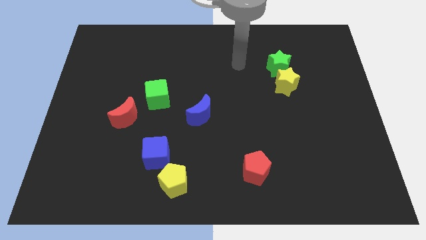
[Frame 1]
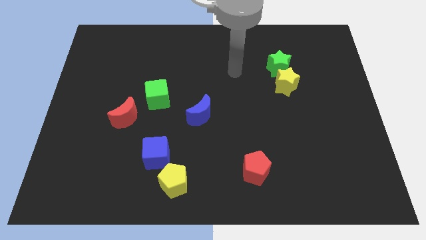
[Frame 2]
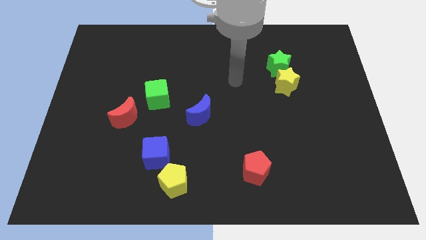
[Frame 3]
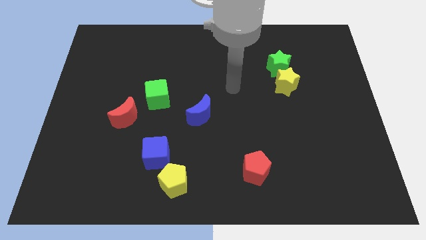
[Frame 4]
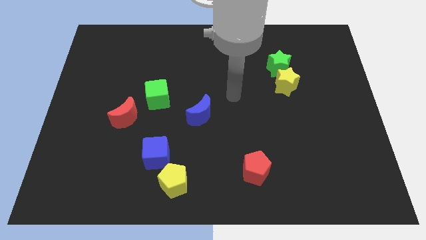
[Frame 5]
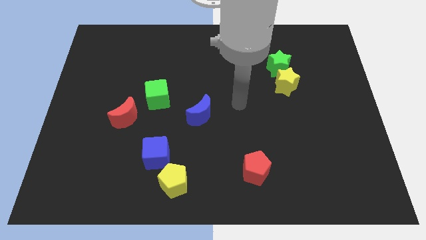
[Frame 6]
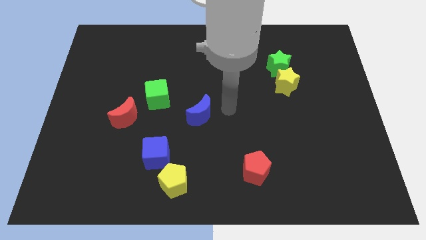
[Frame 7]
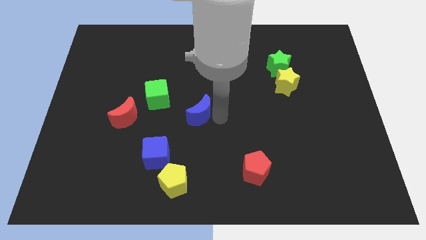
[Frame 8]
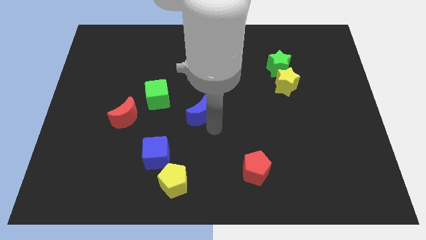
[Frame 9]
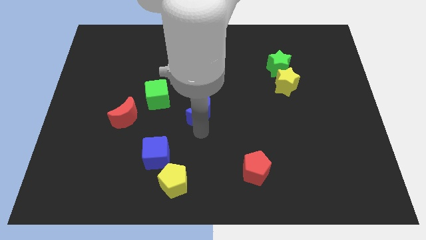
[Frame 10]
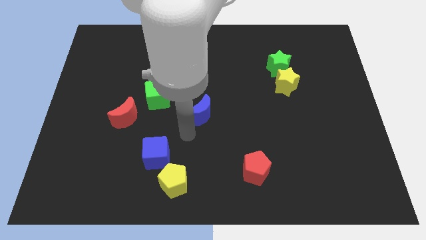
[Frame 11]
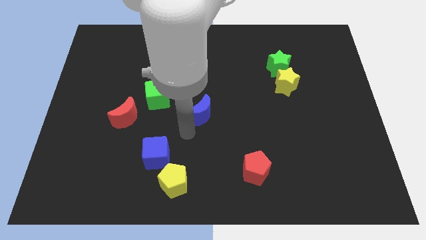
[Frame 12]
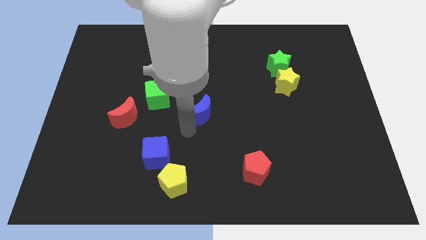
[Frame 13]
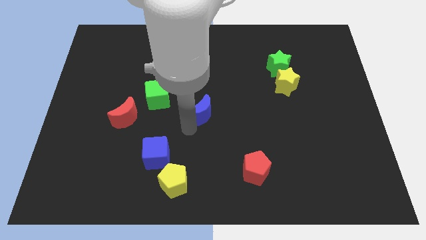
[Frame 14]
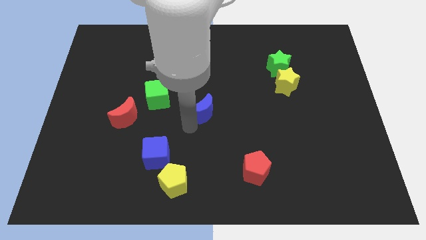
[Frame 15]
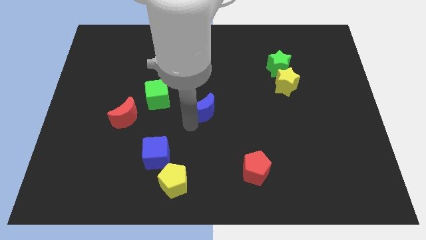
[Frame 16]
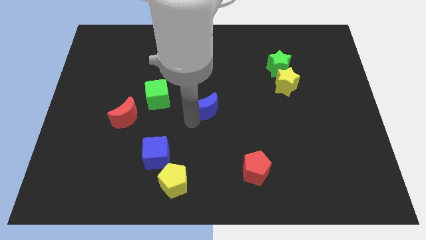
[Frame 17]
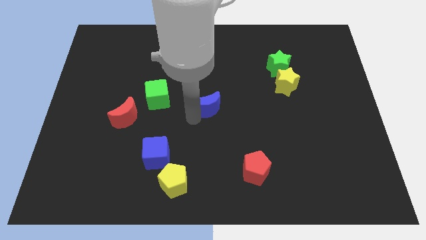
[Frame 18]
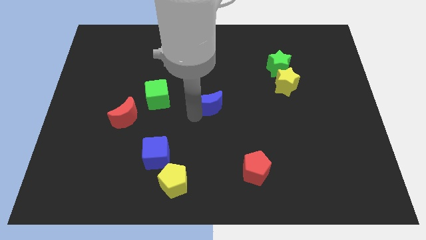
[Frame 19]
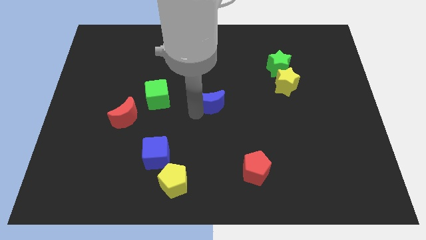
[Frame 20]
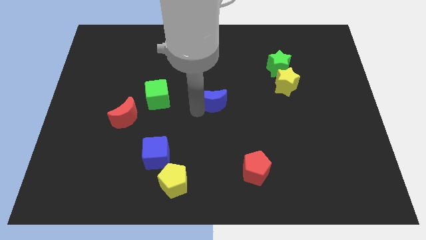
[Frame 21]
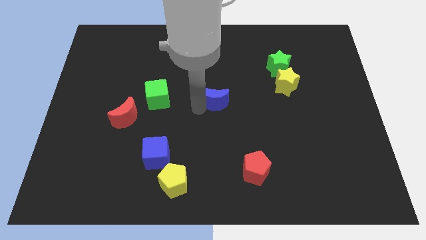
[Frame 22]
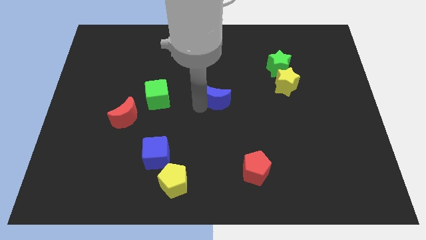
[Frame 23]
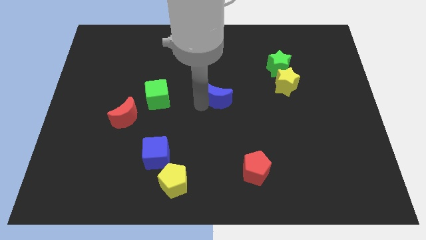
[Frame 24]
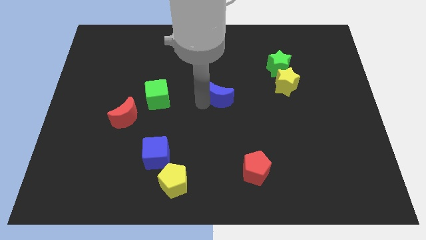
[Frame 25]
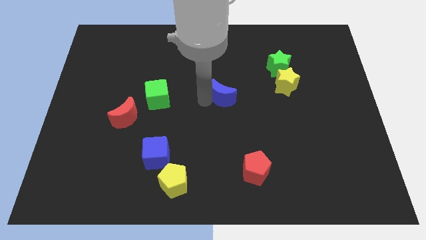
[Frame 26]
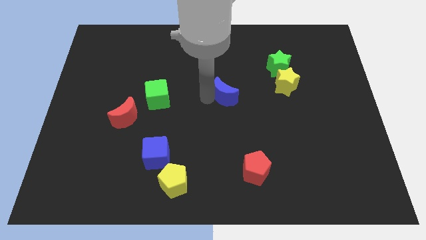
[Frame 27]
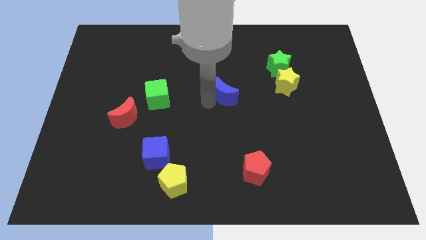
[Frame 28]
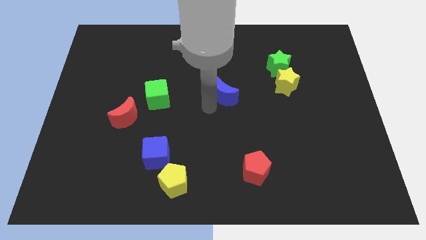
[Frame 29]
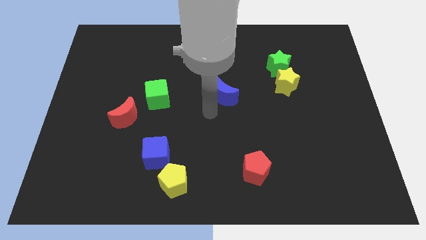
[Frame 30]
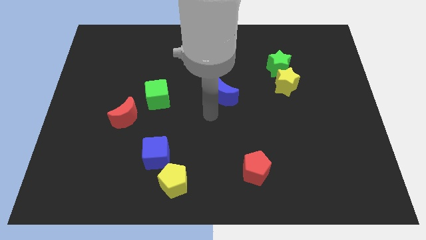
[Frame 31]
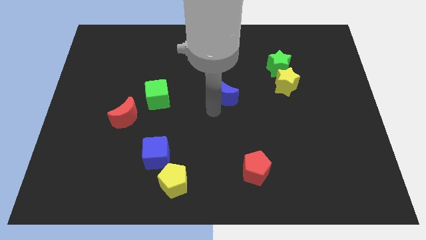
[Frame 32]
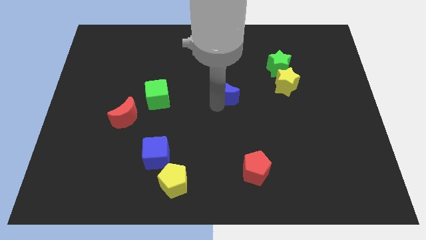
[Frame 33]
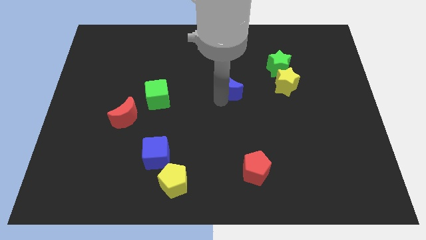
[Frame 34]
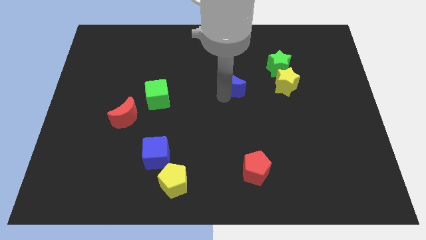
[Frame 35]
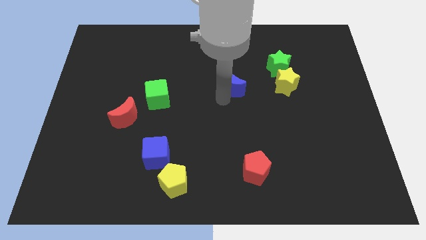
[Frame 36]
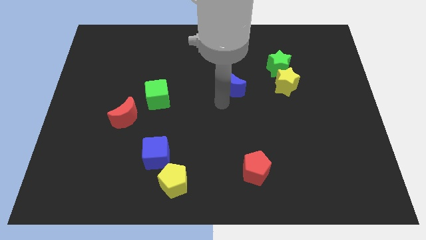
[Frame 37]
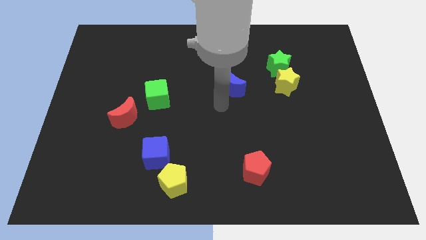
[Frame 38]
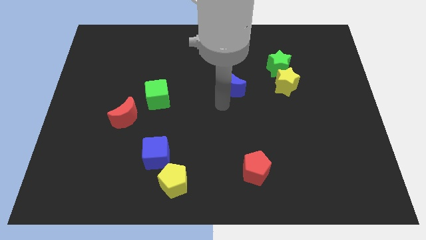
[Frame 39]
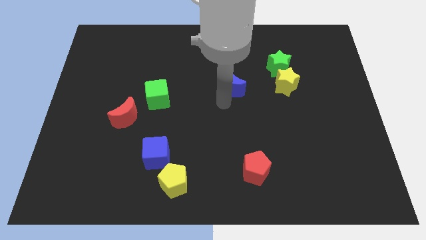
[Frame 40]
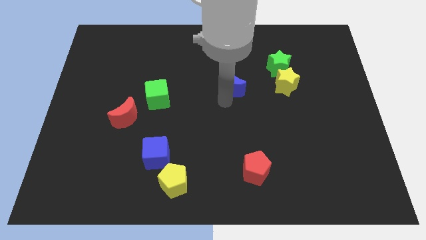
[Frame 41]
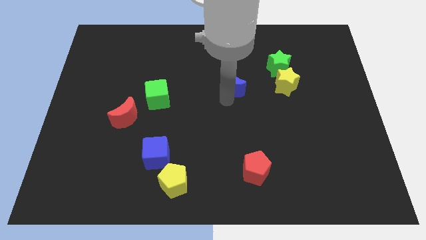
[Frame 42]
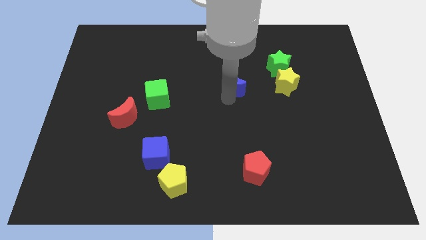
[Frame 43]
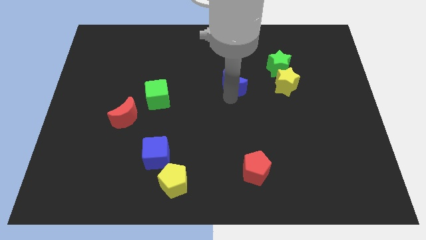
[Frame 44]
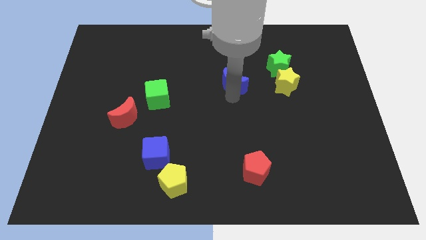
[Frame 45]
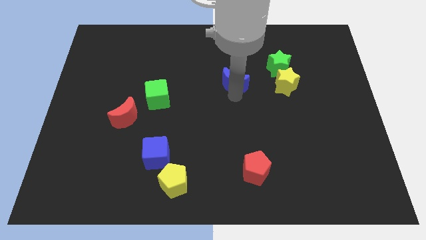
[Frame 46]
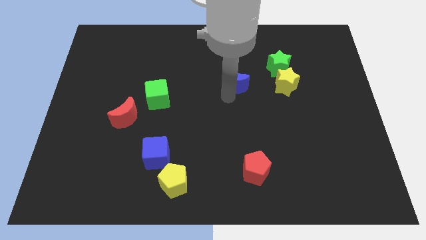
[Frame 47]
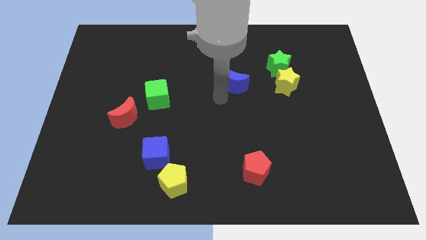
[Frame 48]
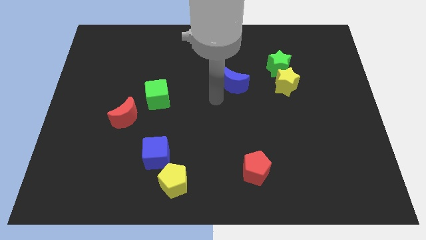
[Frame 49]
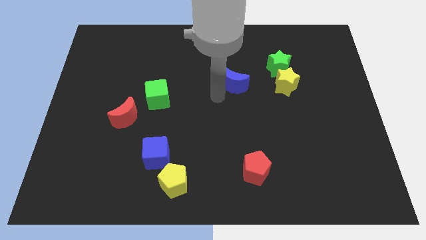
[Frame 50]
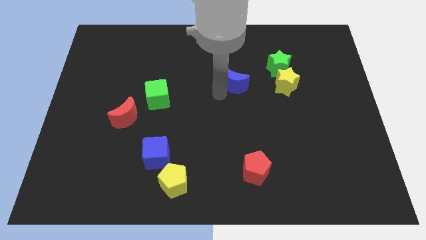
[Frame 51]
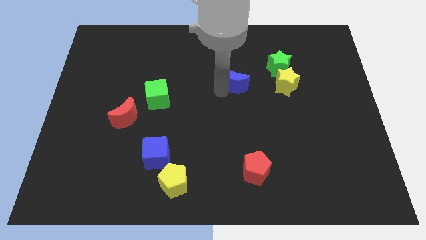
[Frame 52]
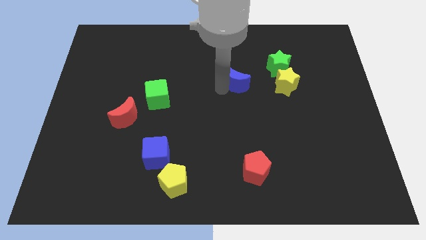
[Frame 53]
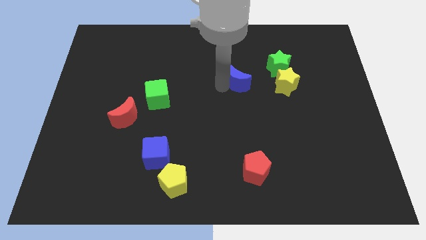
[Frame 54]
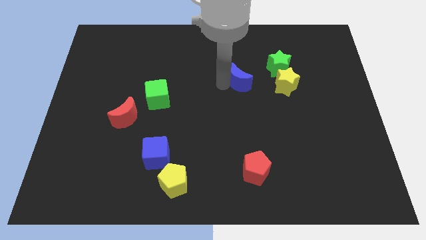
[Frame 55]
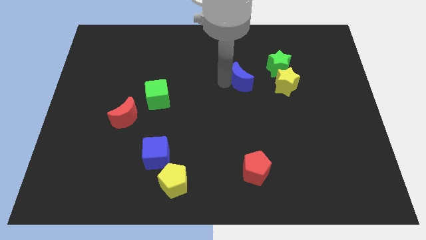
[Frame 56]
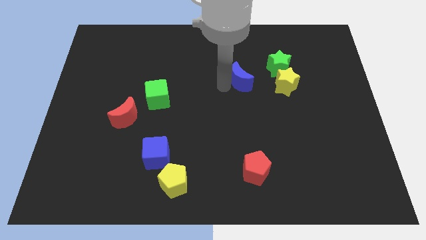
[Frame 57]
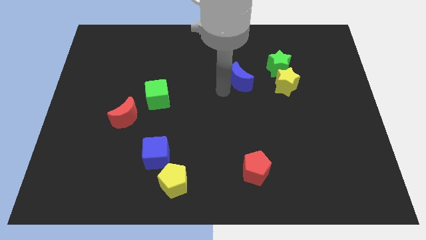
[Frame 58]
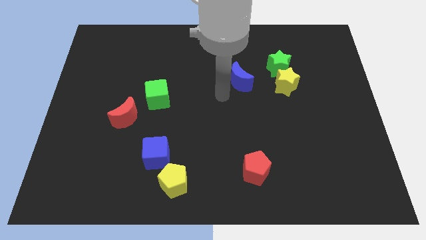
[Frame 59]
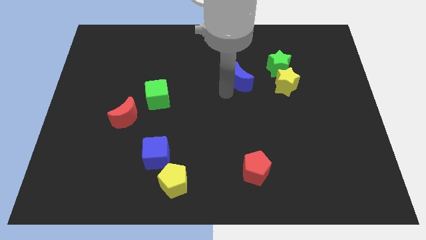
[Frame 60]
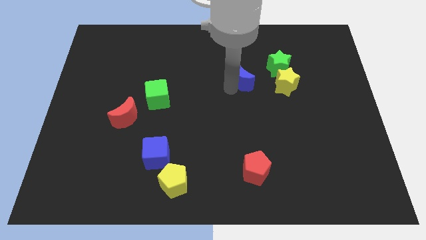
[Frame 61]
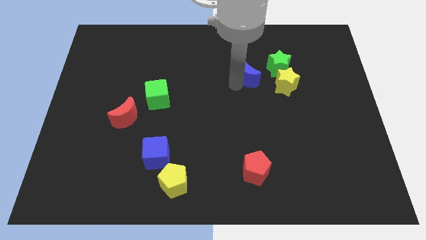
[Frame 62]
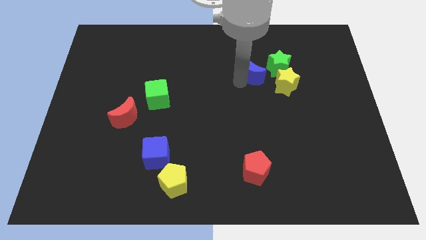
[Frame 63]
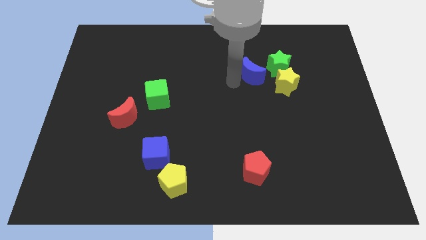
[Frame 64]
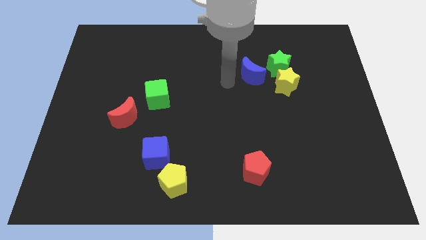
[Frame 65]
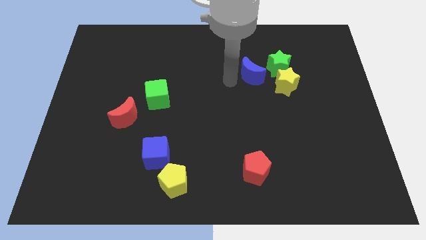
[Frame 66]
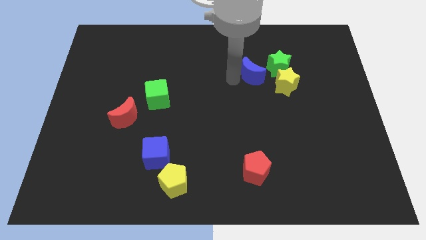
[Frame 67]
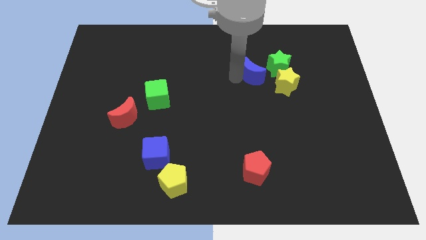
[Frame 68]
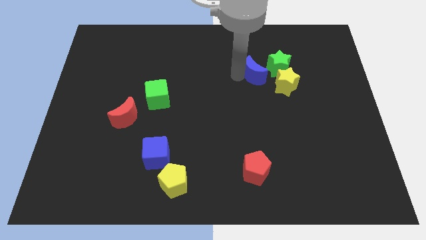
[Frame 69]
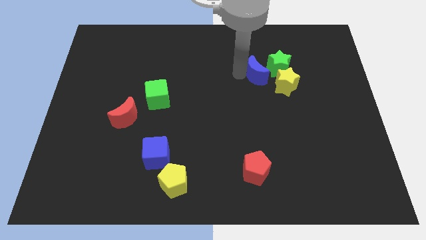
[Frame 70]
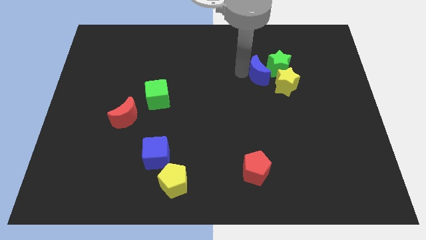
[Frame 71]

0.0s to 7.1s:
push the blue moon close to the green star
